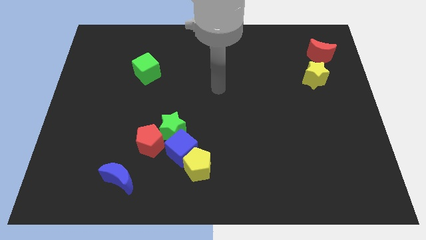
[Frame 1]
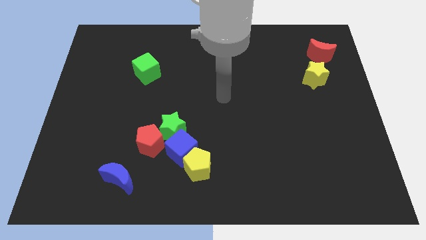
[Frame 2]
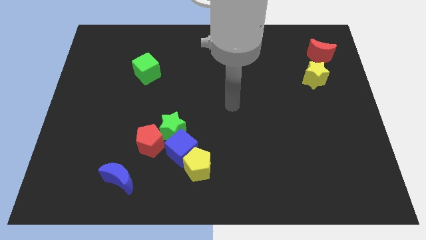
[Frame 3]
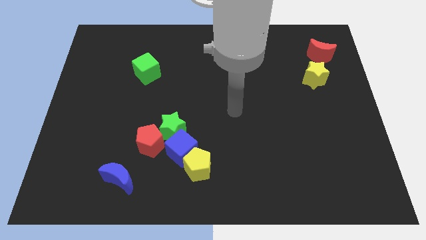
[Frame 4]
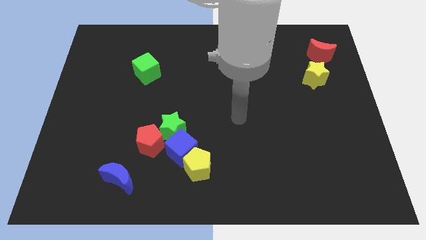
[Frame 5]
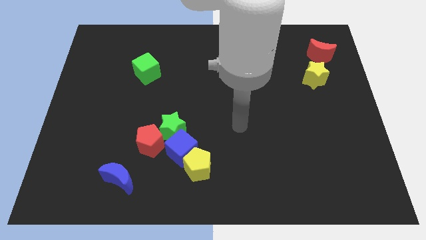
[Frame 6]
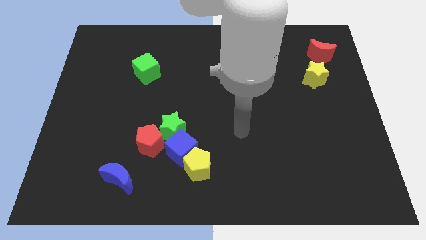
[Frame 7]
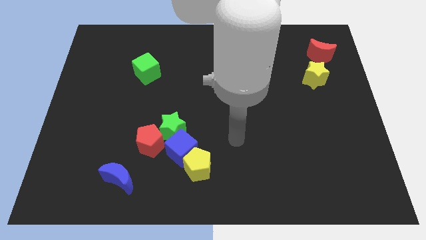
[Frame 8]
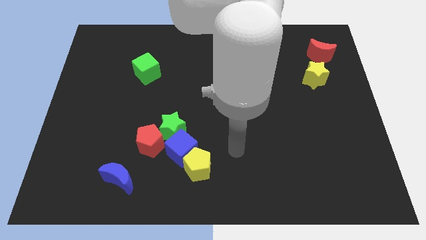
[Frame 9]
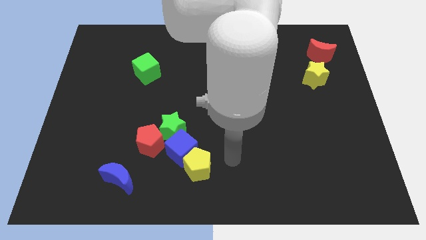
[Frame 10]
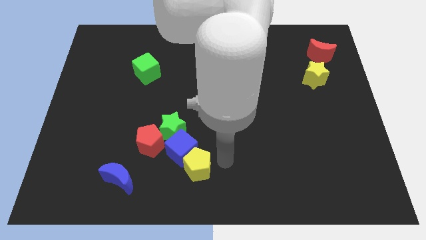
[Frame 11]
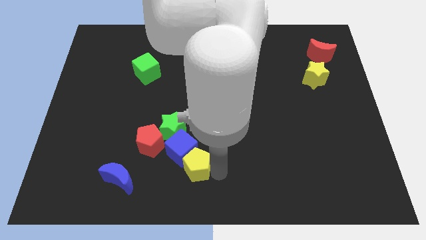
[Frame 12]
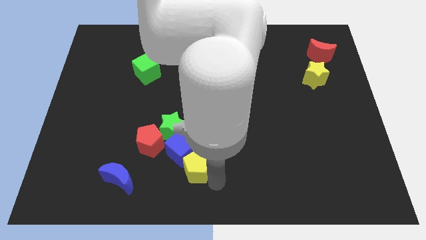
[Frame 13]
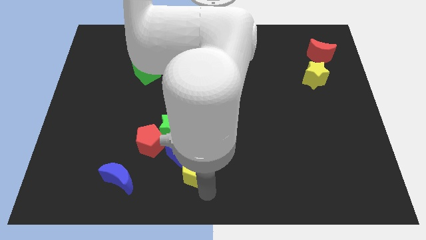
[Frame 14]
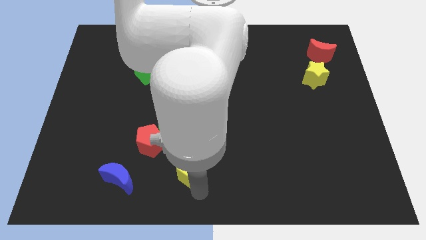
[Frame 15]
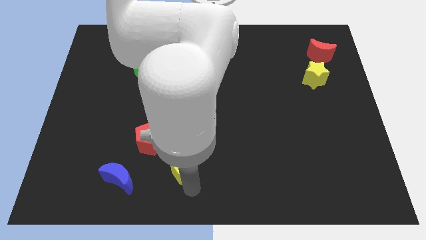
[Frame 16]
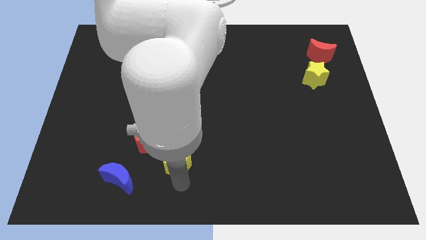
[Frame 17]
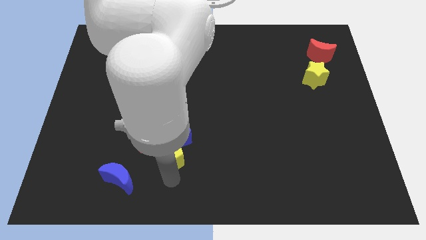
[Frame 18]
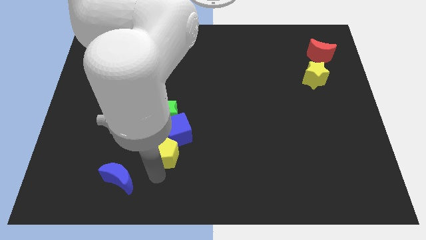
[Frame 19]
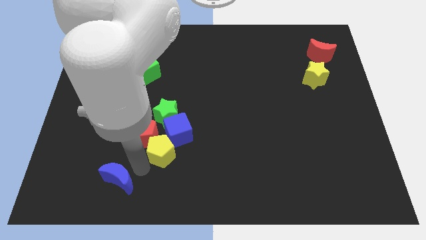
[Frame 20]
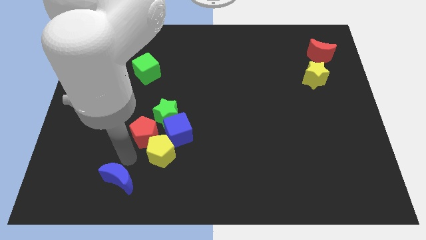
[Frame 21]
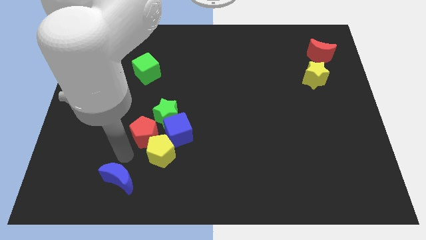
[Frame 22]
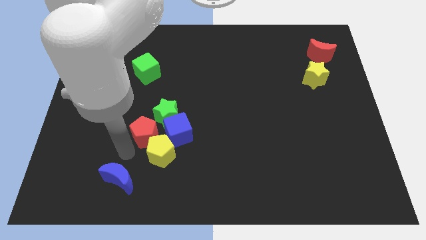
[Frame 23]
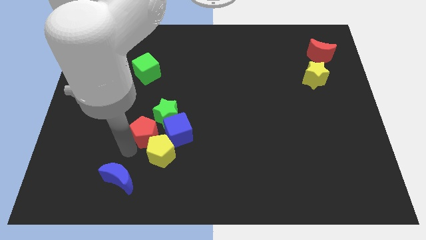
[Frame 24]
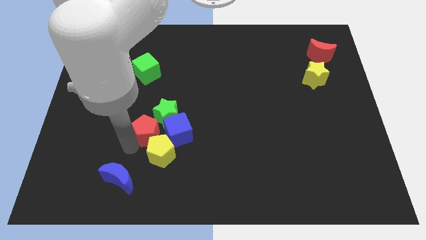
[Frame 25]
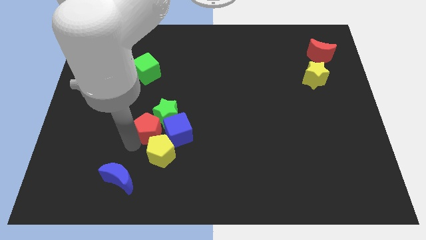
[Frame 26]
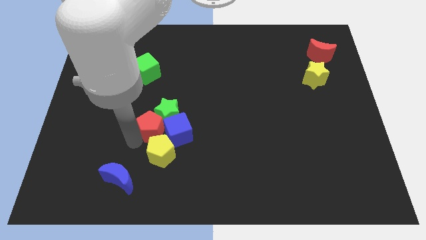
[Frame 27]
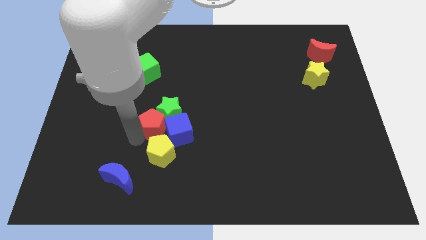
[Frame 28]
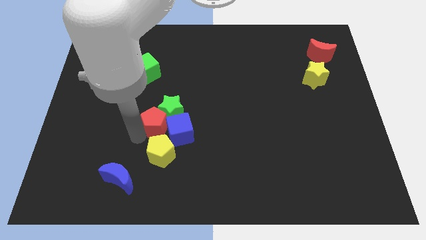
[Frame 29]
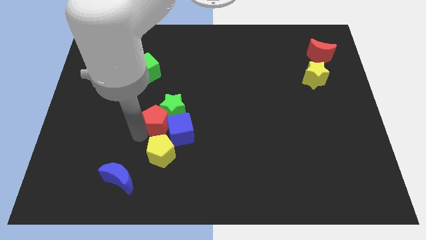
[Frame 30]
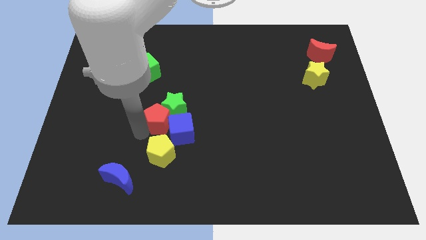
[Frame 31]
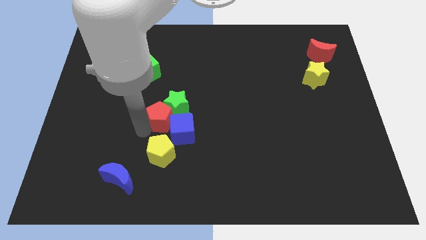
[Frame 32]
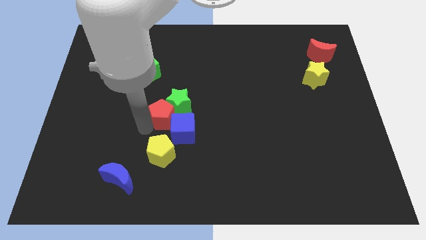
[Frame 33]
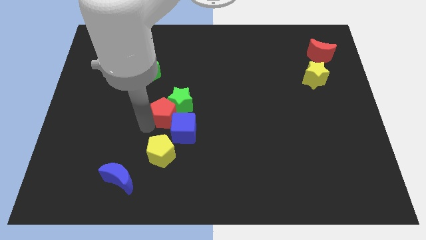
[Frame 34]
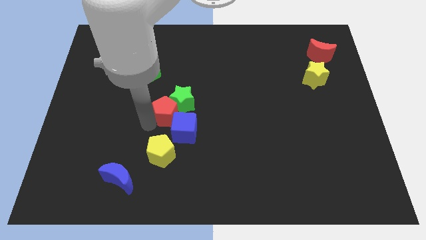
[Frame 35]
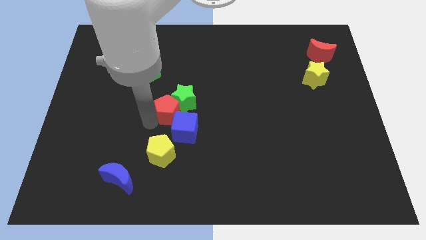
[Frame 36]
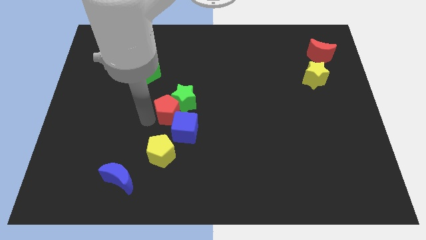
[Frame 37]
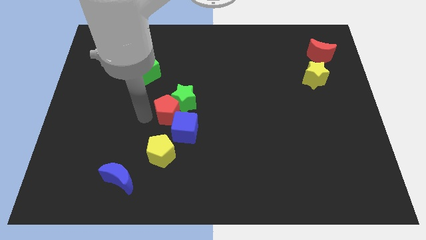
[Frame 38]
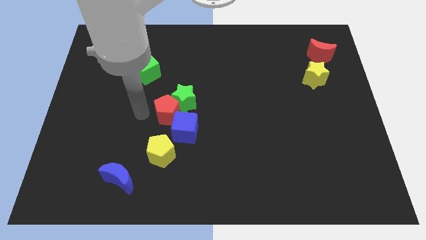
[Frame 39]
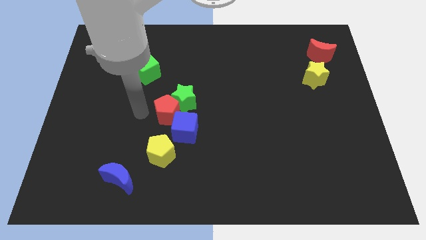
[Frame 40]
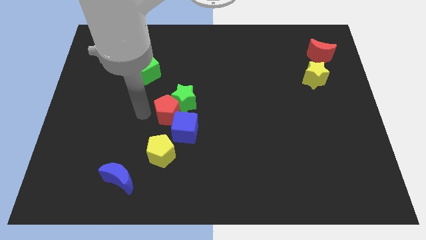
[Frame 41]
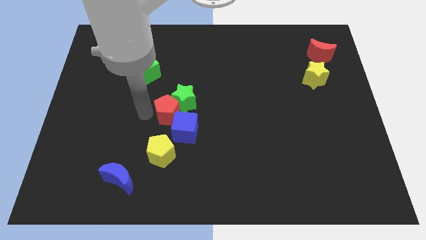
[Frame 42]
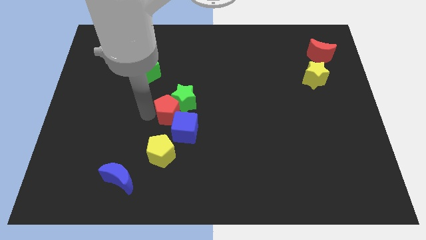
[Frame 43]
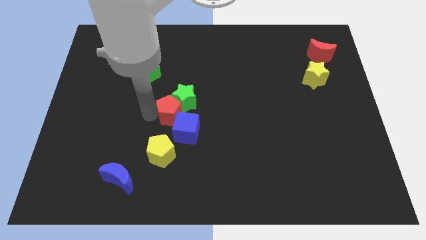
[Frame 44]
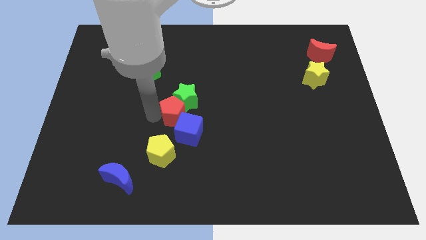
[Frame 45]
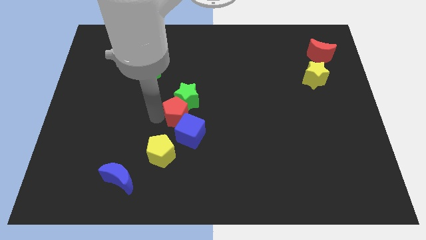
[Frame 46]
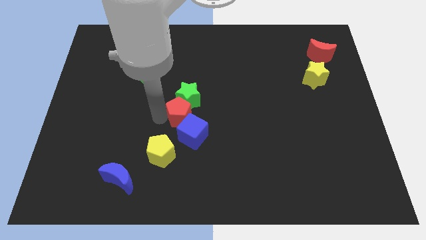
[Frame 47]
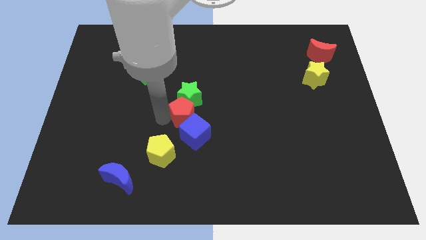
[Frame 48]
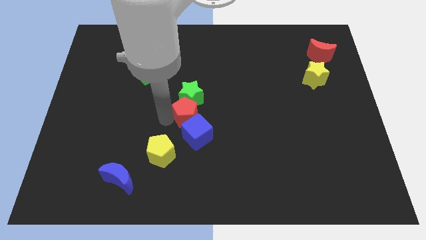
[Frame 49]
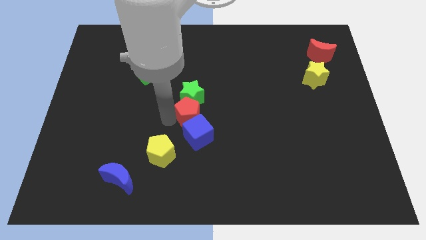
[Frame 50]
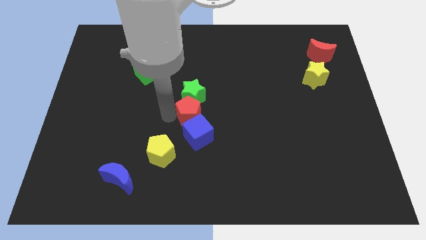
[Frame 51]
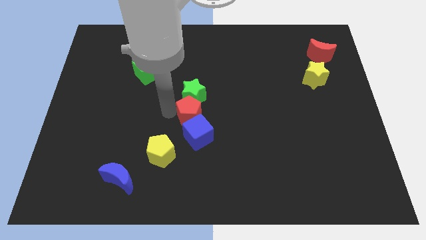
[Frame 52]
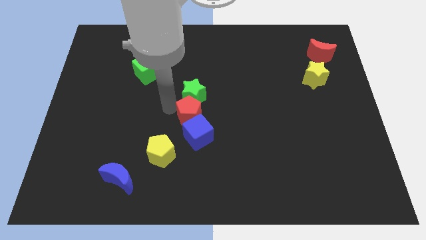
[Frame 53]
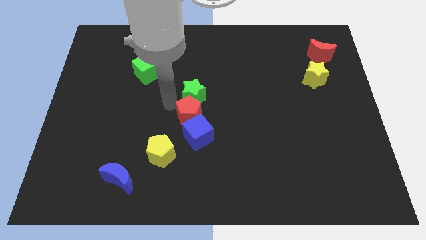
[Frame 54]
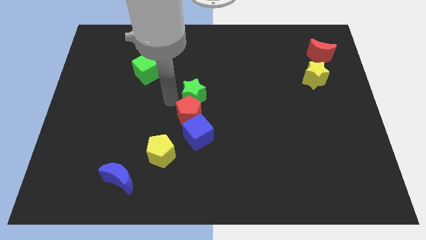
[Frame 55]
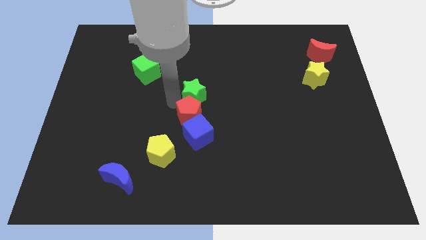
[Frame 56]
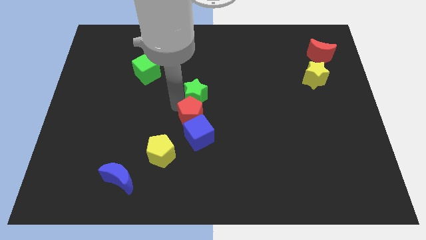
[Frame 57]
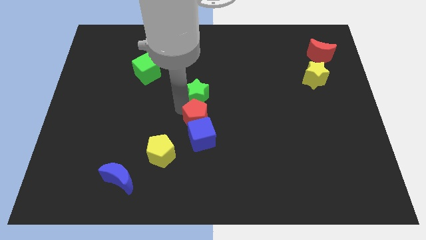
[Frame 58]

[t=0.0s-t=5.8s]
move the red pentagon right a little bit

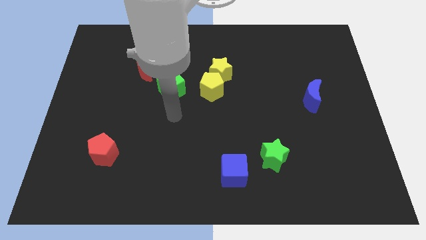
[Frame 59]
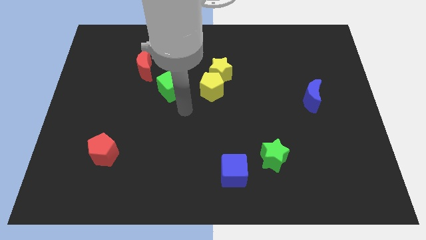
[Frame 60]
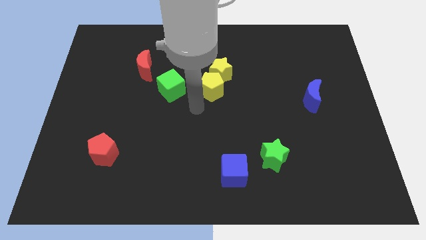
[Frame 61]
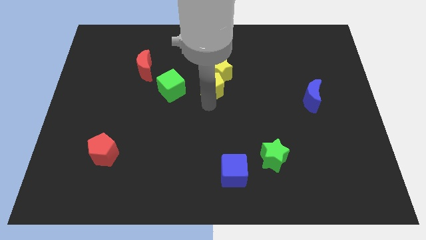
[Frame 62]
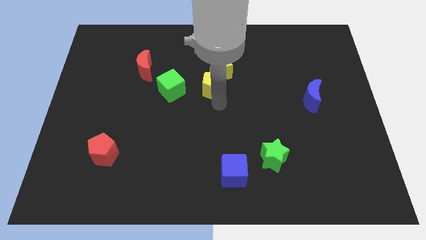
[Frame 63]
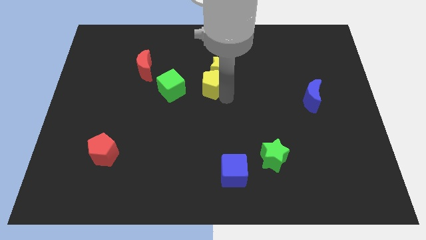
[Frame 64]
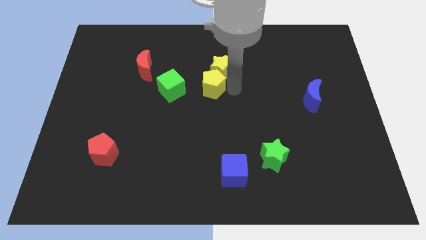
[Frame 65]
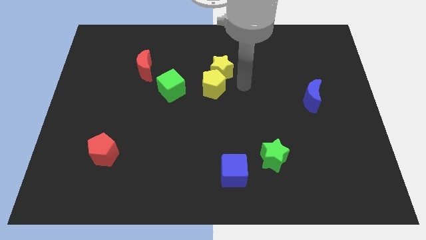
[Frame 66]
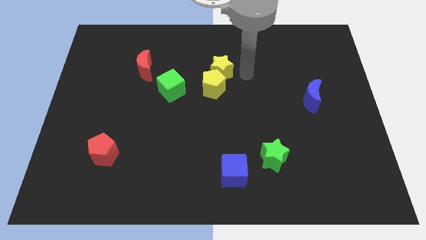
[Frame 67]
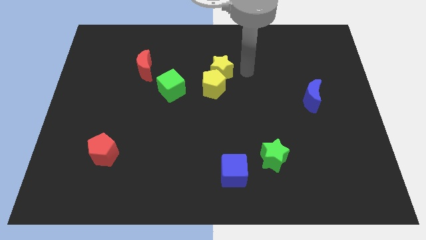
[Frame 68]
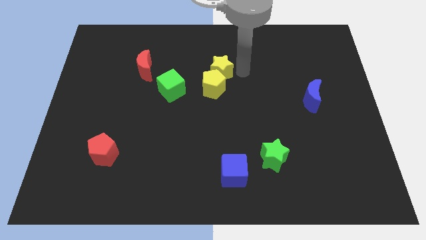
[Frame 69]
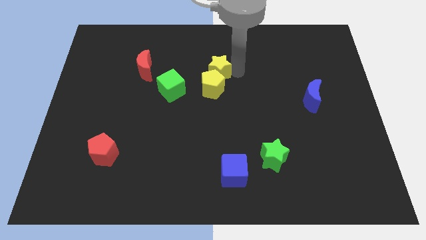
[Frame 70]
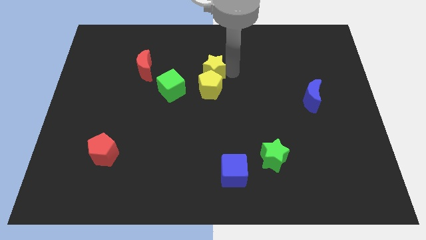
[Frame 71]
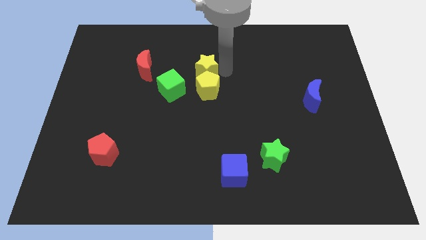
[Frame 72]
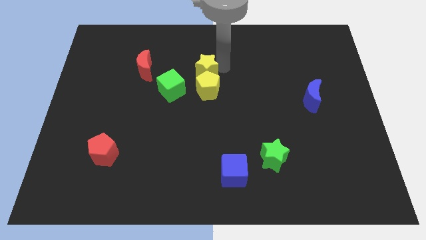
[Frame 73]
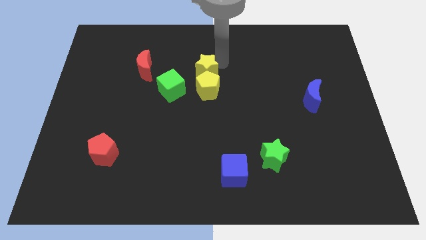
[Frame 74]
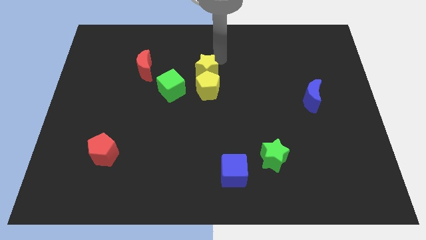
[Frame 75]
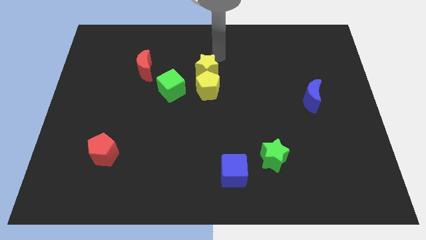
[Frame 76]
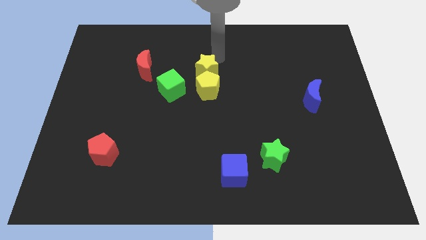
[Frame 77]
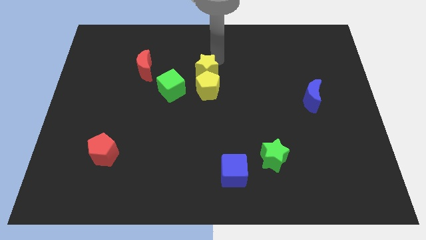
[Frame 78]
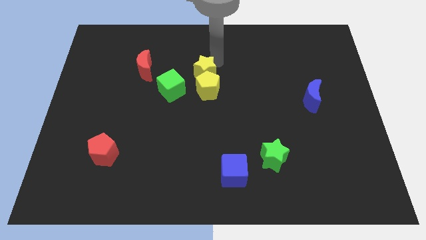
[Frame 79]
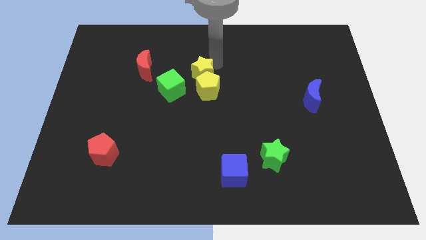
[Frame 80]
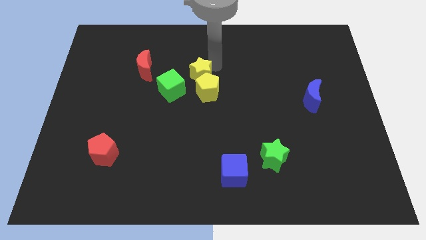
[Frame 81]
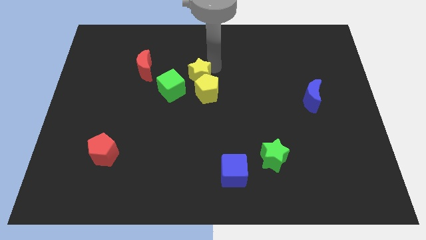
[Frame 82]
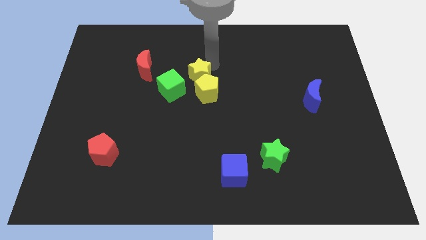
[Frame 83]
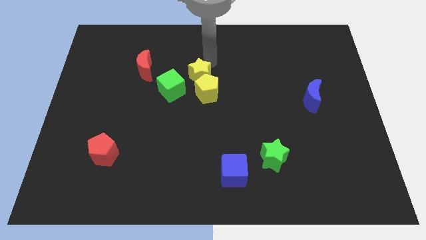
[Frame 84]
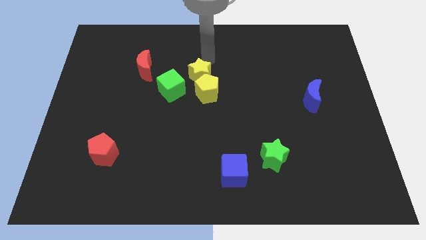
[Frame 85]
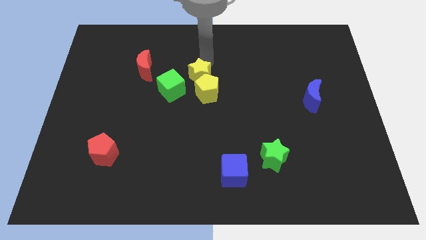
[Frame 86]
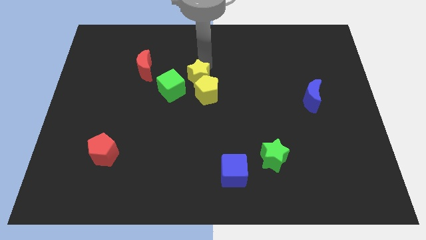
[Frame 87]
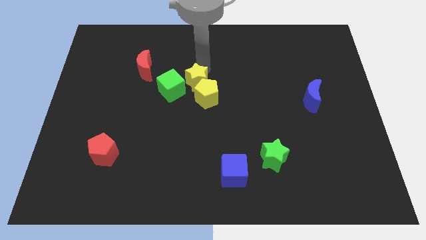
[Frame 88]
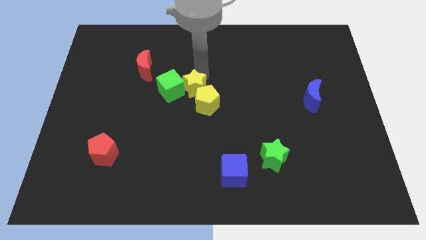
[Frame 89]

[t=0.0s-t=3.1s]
slightly push the yellow star diagonally down and to the left
